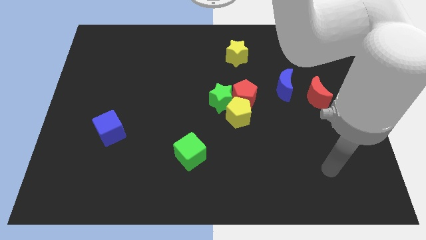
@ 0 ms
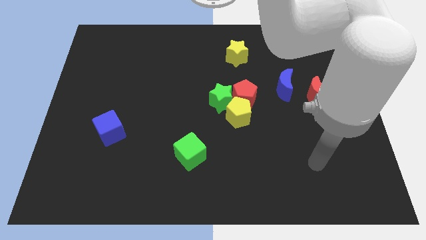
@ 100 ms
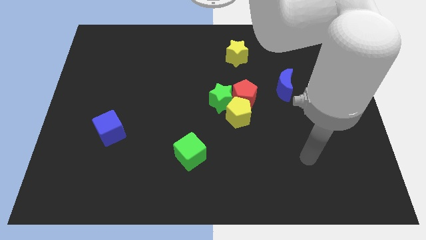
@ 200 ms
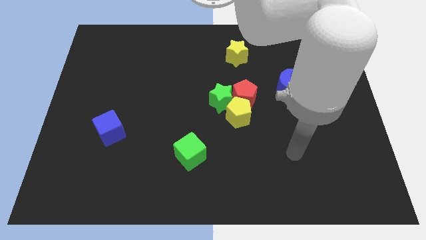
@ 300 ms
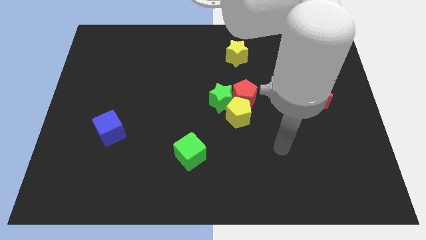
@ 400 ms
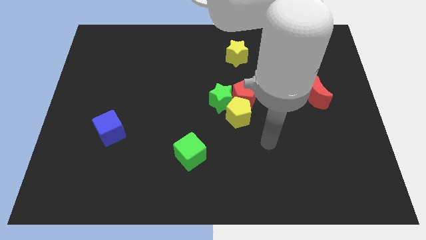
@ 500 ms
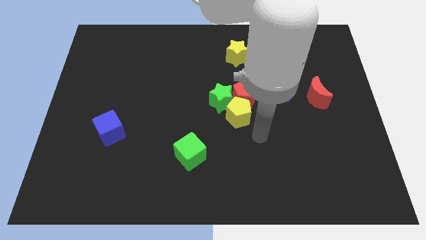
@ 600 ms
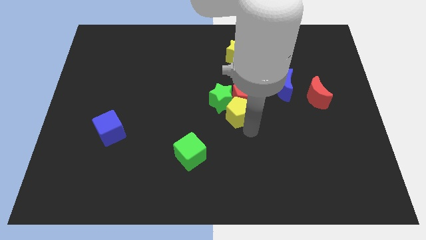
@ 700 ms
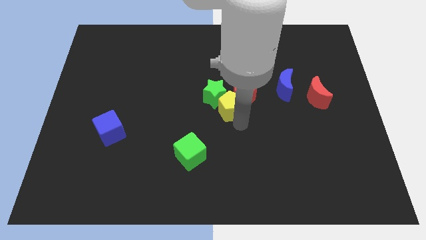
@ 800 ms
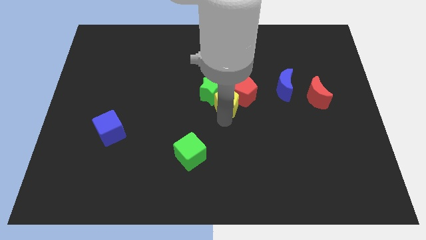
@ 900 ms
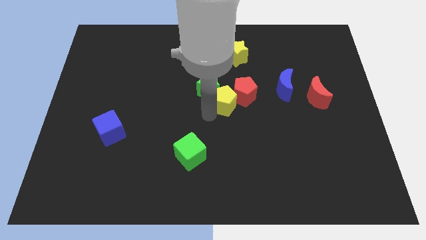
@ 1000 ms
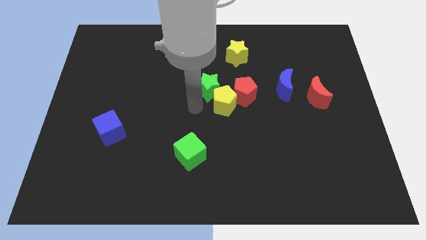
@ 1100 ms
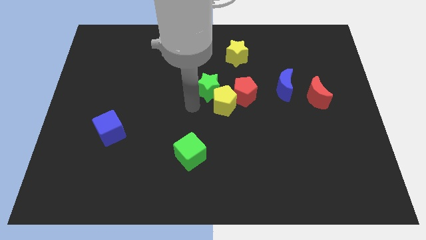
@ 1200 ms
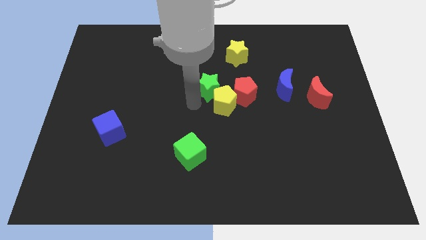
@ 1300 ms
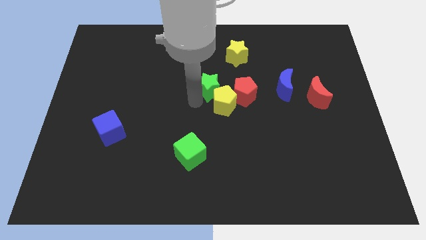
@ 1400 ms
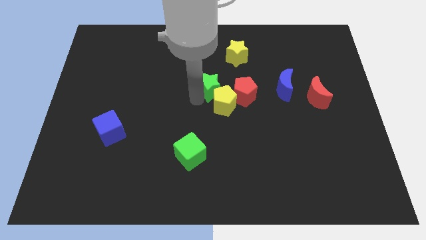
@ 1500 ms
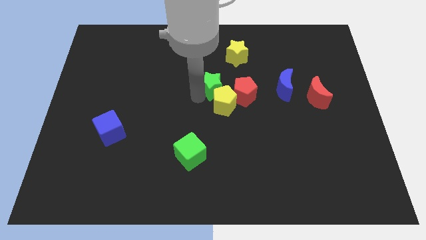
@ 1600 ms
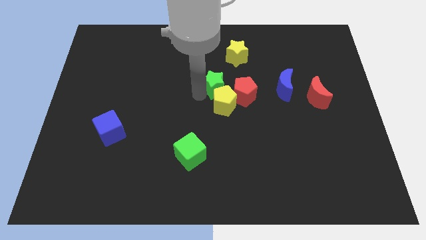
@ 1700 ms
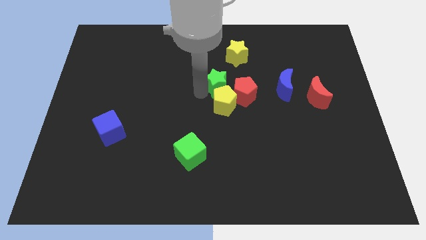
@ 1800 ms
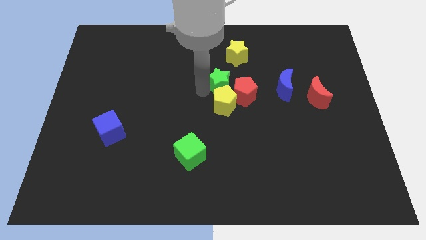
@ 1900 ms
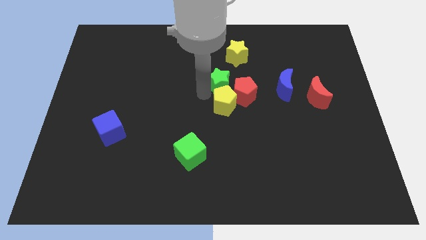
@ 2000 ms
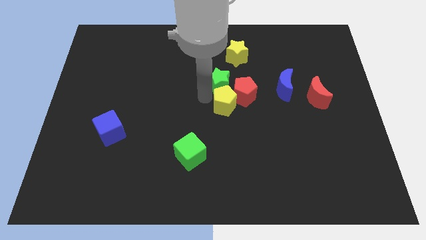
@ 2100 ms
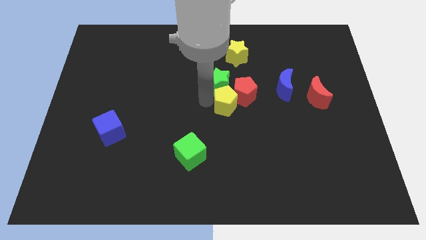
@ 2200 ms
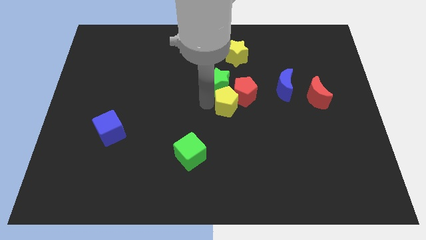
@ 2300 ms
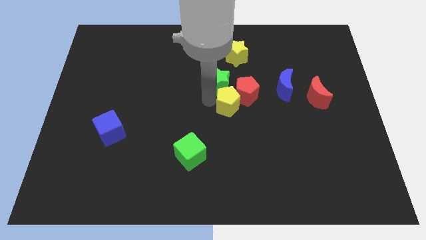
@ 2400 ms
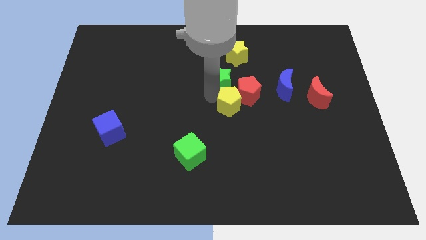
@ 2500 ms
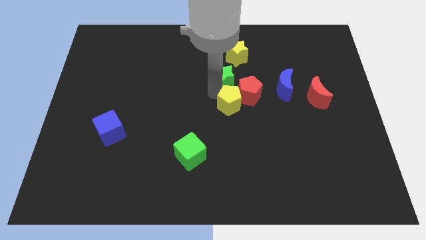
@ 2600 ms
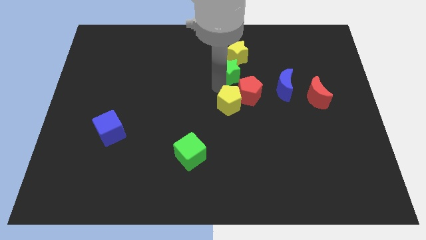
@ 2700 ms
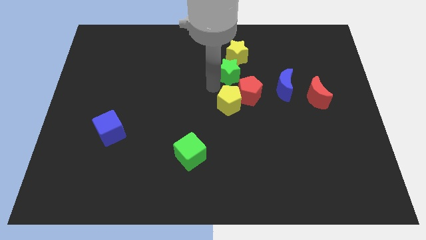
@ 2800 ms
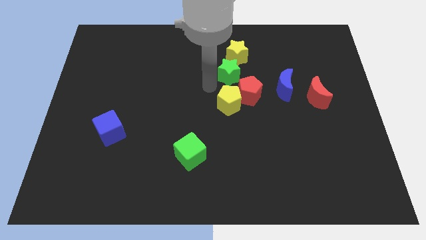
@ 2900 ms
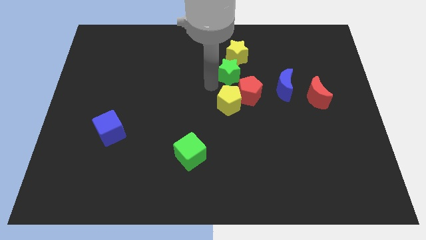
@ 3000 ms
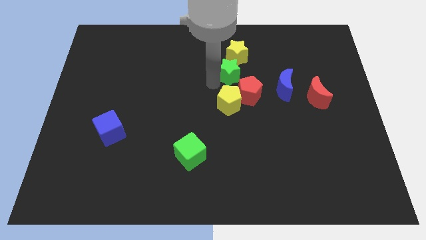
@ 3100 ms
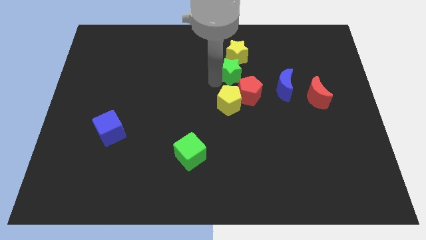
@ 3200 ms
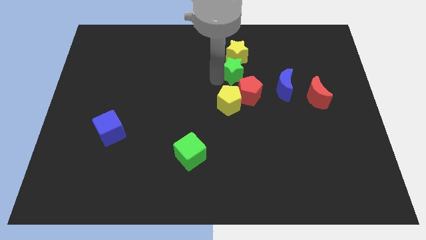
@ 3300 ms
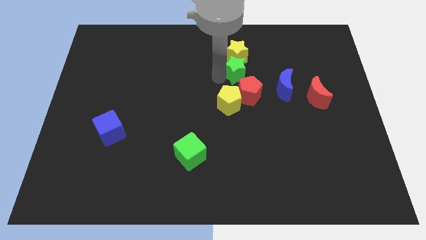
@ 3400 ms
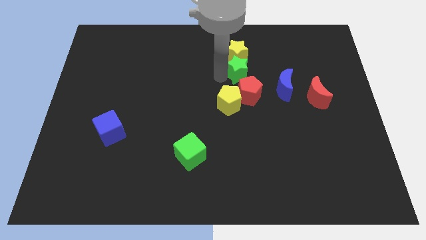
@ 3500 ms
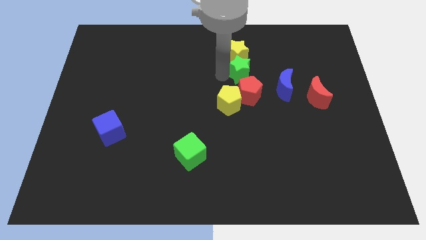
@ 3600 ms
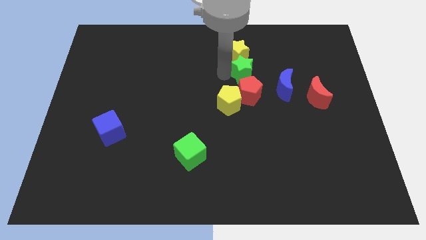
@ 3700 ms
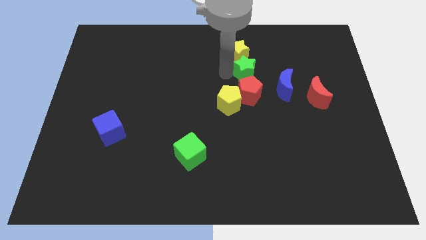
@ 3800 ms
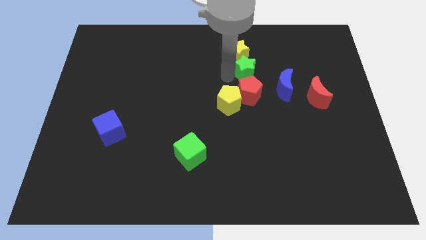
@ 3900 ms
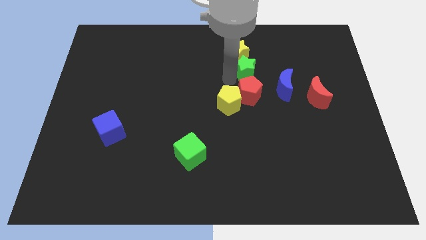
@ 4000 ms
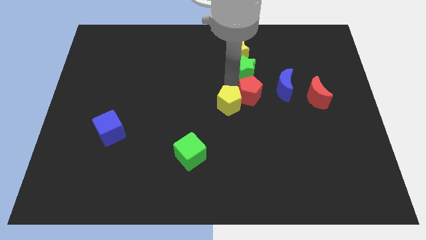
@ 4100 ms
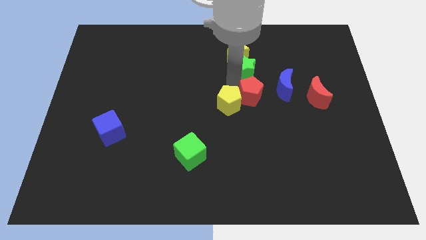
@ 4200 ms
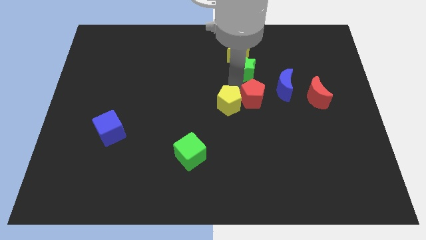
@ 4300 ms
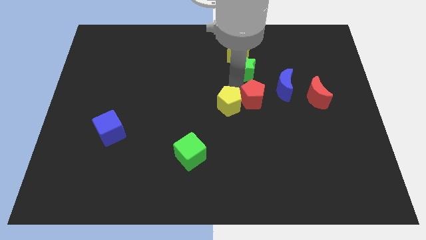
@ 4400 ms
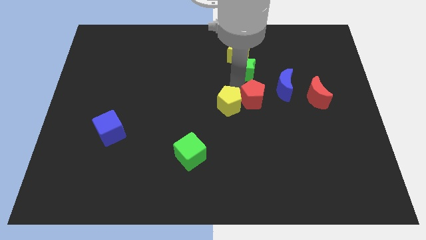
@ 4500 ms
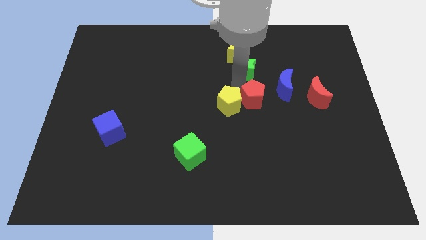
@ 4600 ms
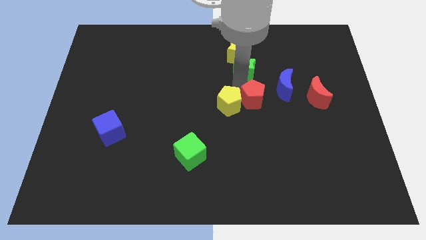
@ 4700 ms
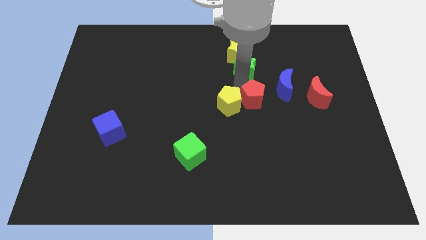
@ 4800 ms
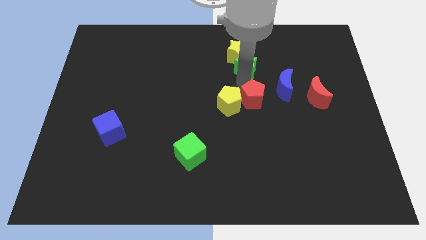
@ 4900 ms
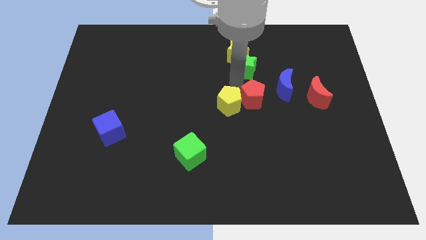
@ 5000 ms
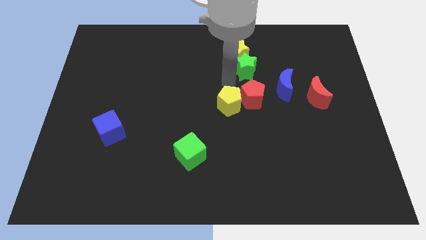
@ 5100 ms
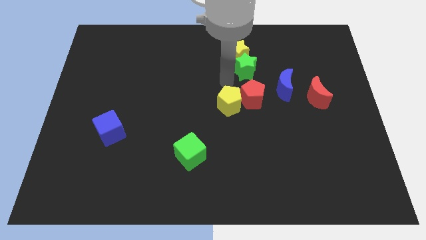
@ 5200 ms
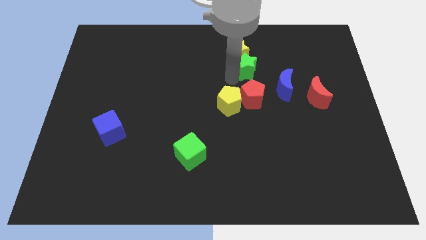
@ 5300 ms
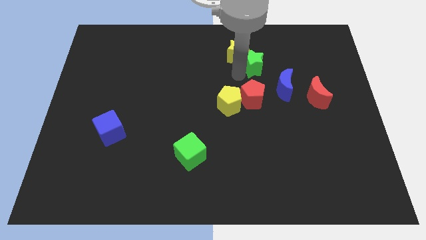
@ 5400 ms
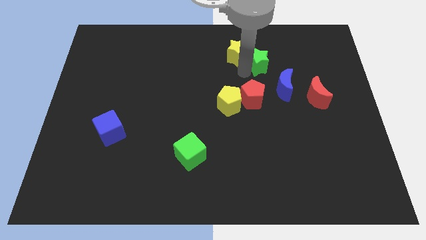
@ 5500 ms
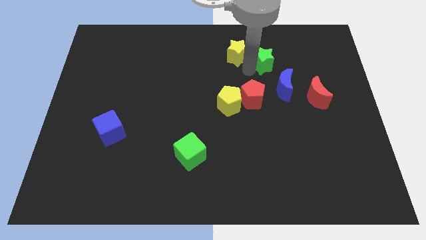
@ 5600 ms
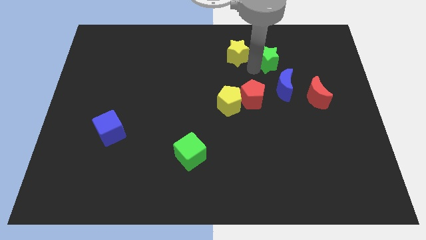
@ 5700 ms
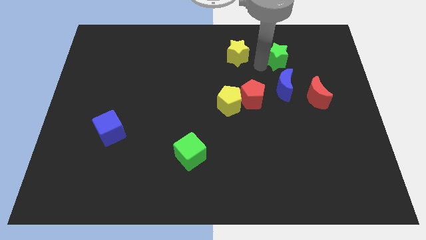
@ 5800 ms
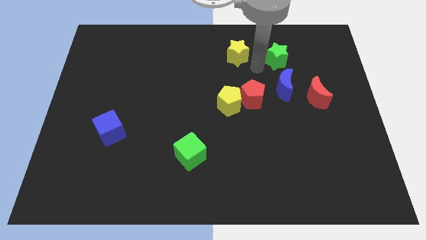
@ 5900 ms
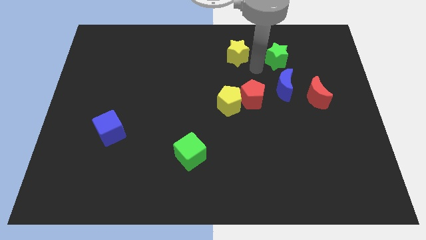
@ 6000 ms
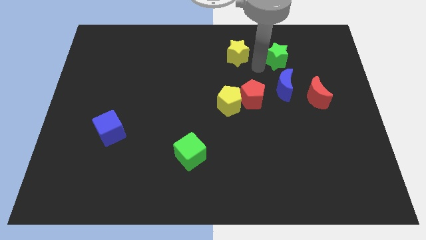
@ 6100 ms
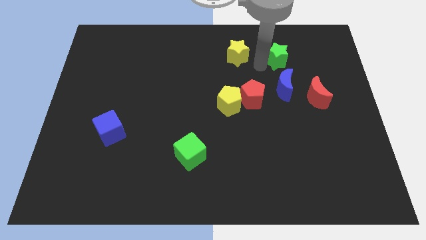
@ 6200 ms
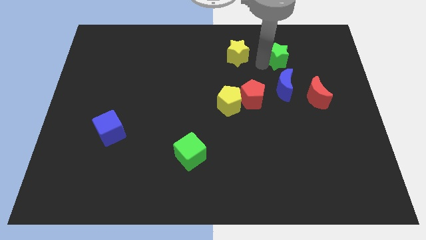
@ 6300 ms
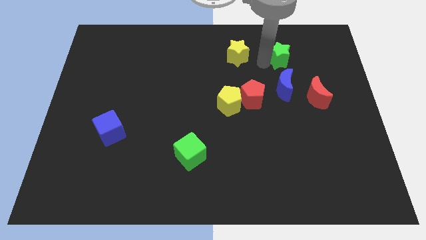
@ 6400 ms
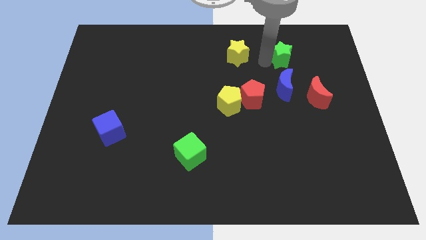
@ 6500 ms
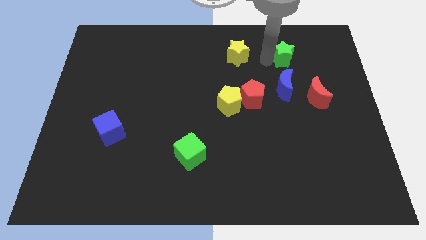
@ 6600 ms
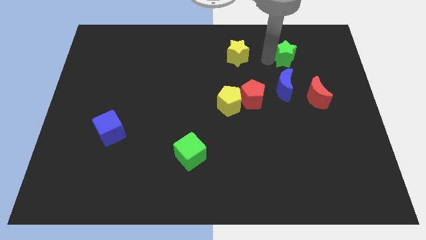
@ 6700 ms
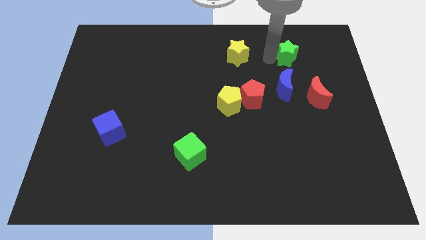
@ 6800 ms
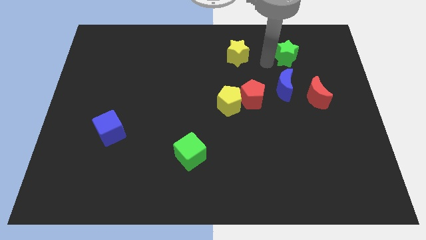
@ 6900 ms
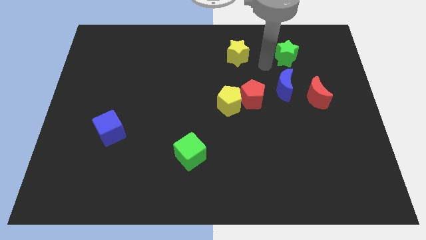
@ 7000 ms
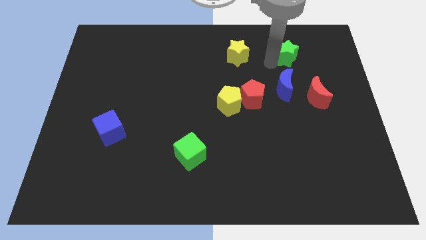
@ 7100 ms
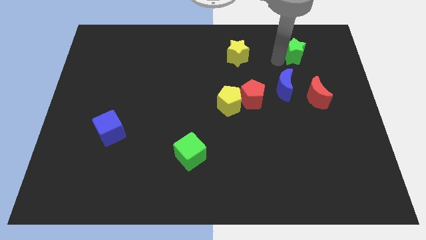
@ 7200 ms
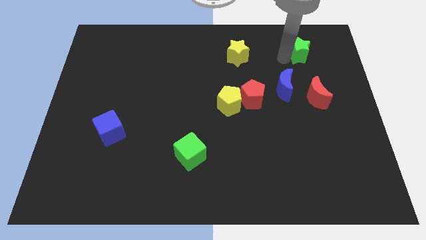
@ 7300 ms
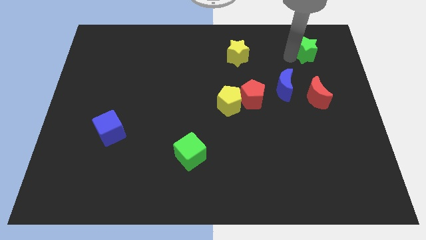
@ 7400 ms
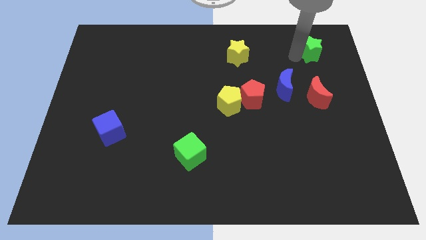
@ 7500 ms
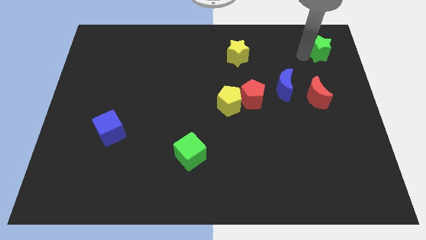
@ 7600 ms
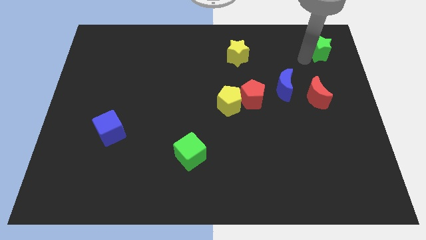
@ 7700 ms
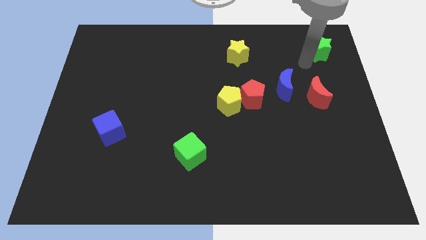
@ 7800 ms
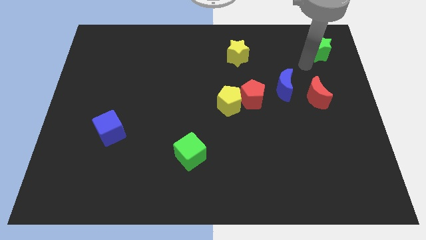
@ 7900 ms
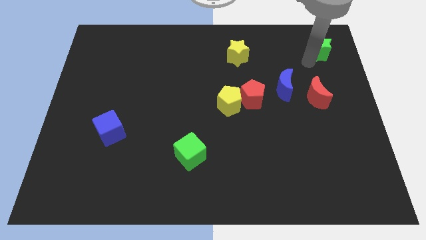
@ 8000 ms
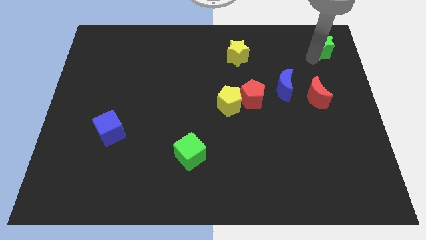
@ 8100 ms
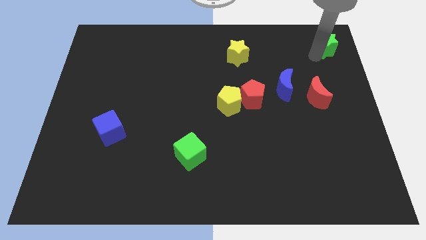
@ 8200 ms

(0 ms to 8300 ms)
put the green star to the upper right corner
